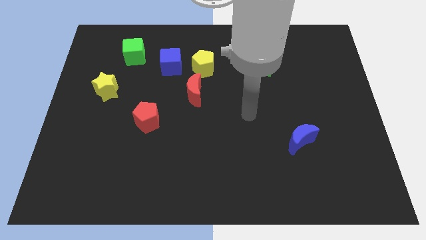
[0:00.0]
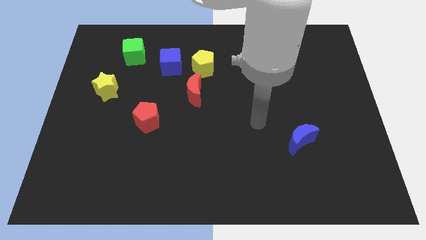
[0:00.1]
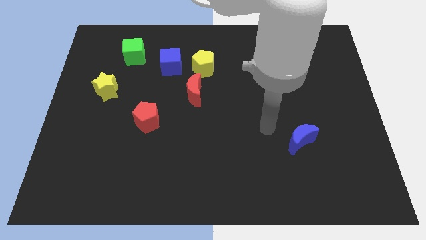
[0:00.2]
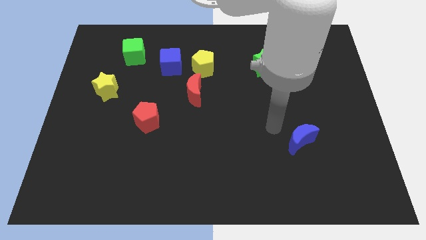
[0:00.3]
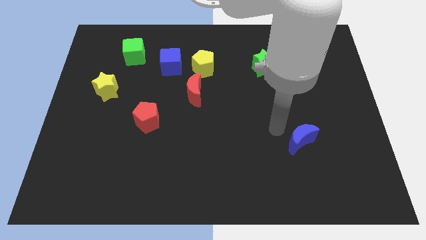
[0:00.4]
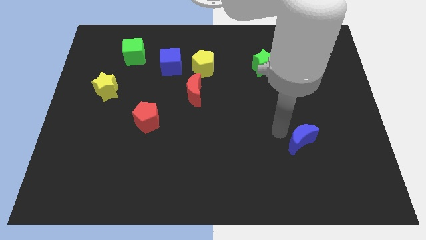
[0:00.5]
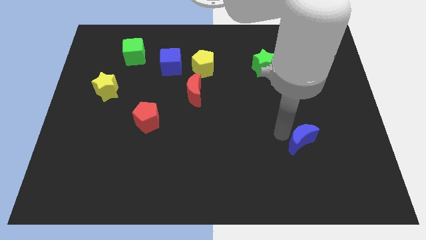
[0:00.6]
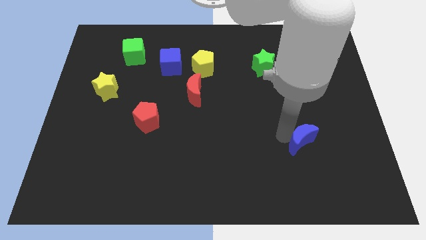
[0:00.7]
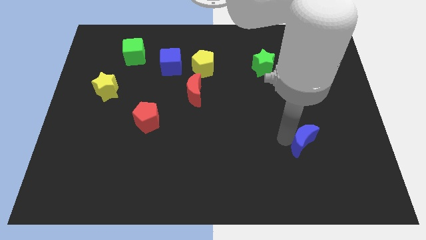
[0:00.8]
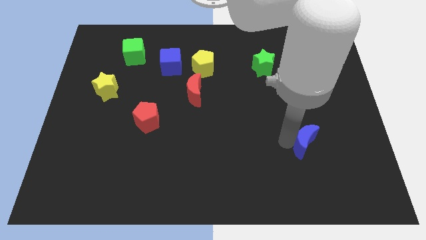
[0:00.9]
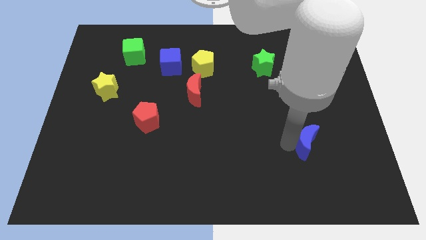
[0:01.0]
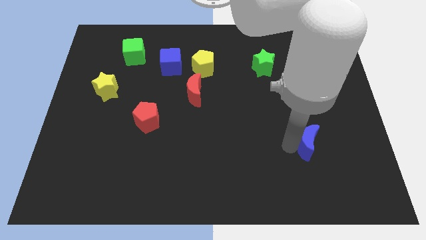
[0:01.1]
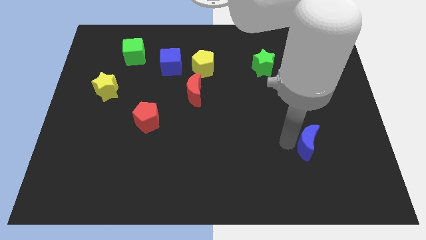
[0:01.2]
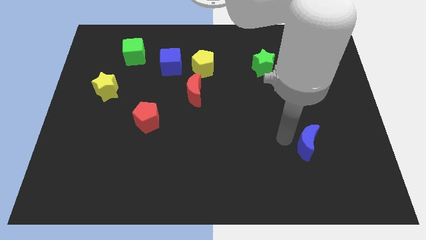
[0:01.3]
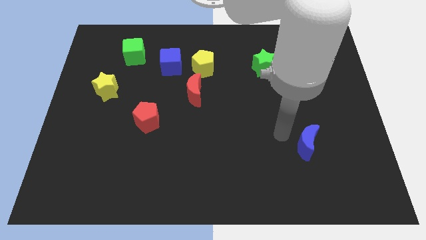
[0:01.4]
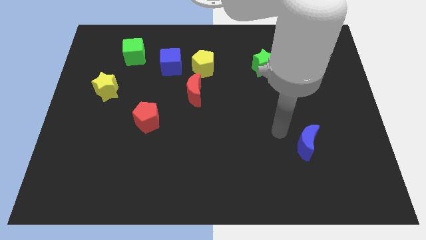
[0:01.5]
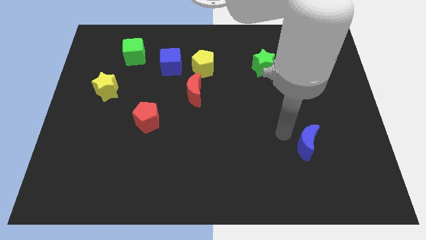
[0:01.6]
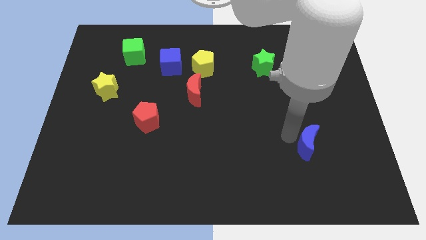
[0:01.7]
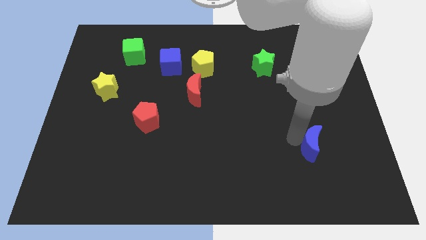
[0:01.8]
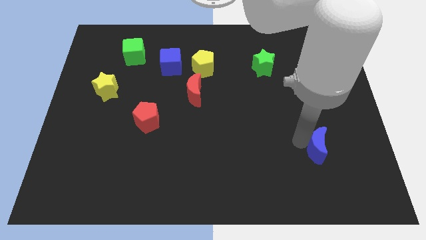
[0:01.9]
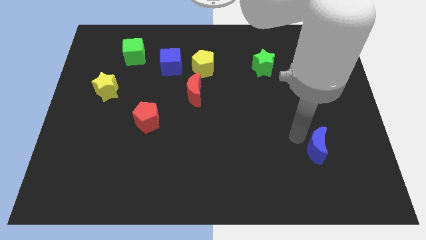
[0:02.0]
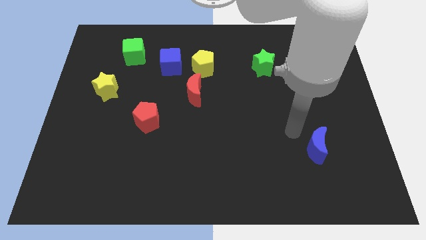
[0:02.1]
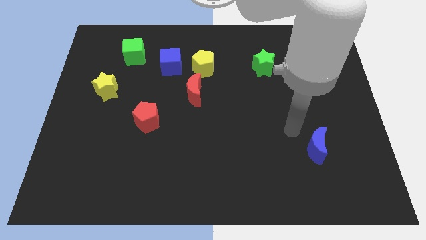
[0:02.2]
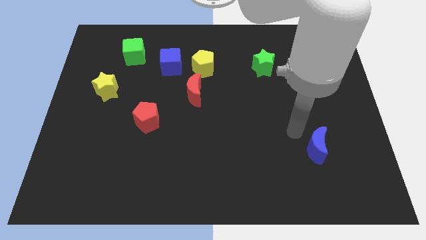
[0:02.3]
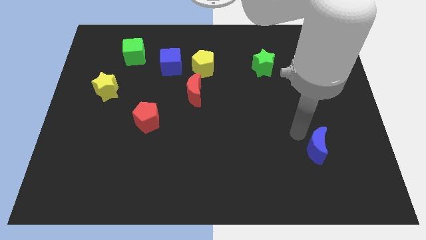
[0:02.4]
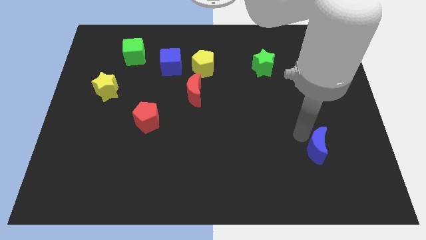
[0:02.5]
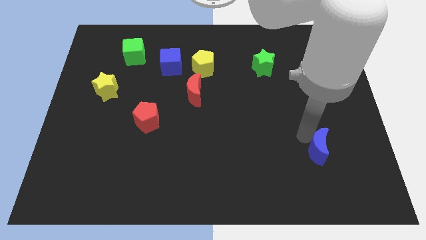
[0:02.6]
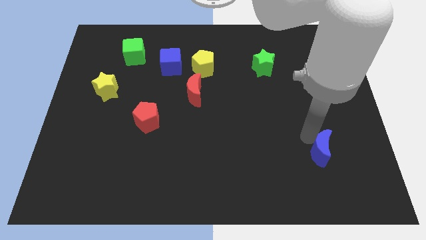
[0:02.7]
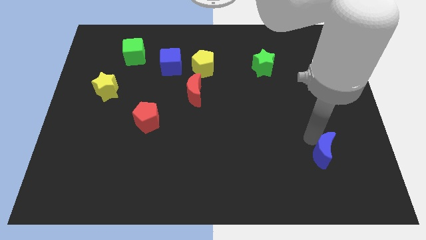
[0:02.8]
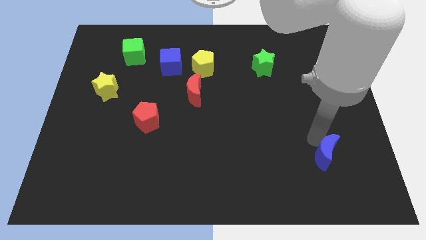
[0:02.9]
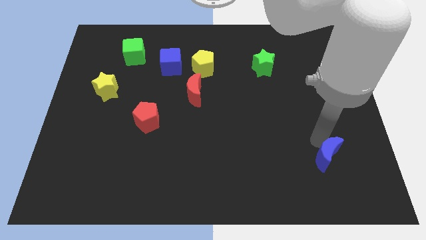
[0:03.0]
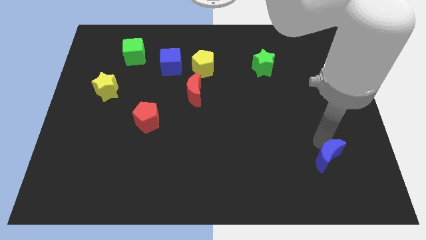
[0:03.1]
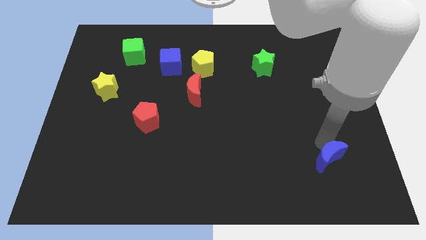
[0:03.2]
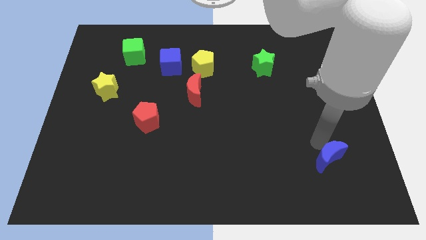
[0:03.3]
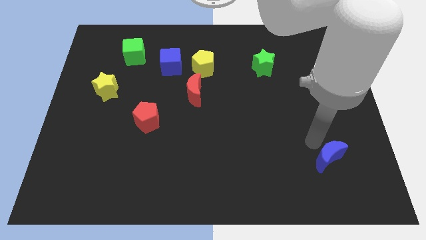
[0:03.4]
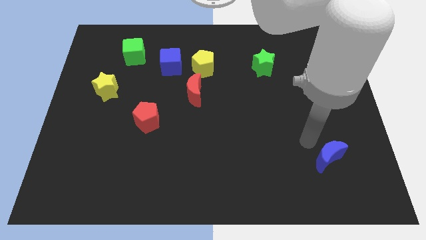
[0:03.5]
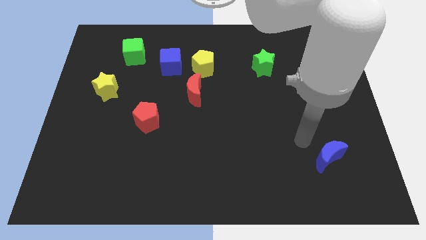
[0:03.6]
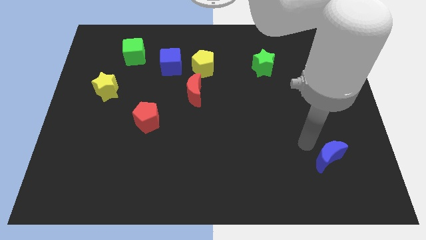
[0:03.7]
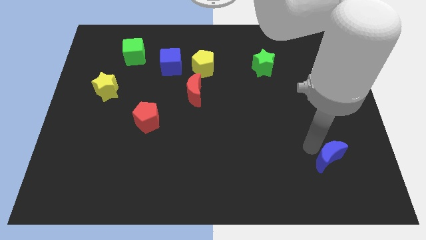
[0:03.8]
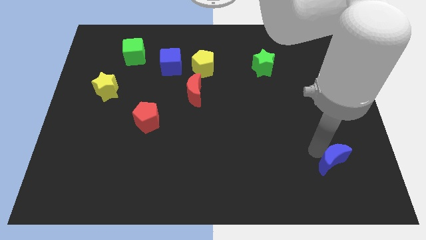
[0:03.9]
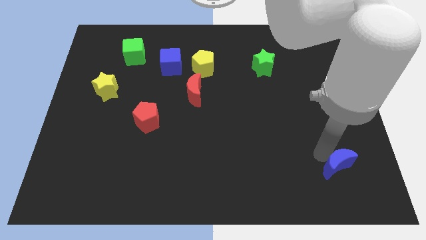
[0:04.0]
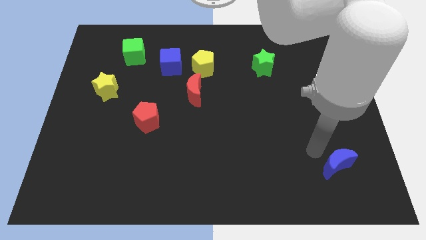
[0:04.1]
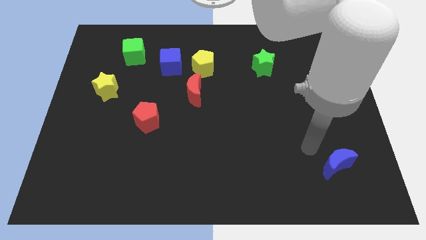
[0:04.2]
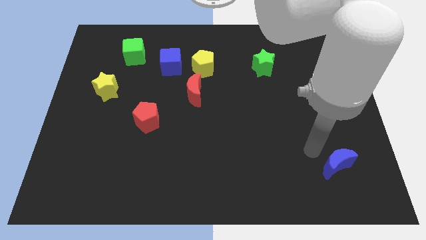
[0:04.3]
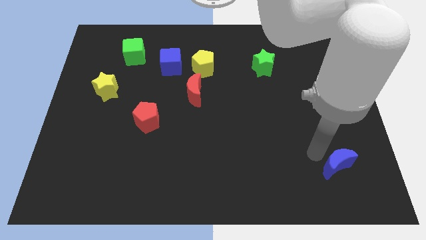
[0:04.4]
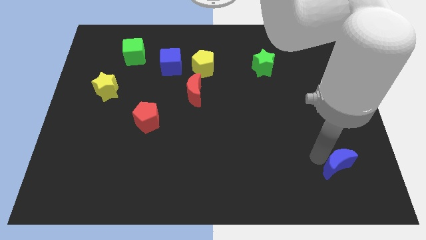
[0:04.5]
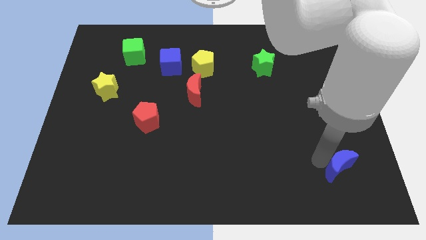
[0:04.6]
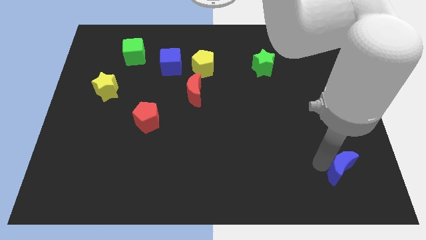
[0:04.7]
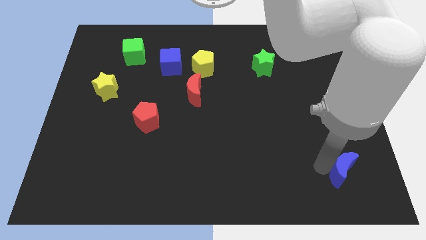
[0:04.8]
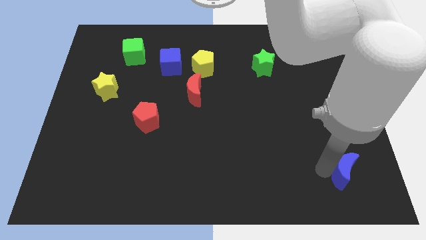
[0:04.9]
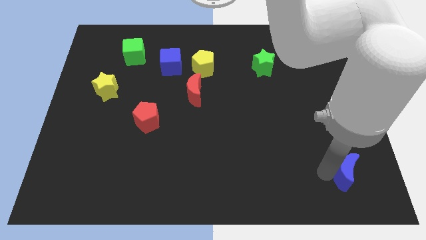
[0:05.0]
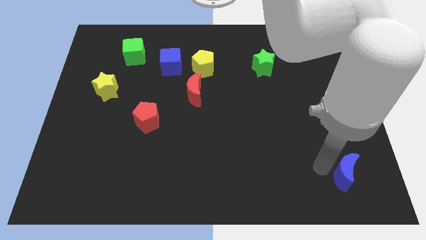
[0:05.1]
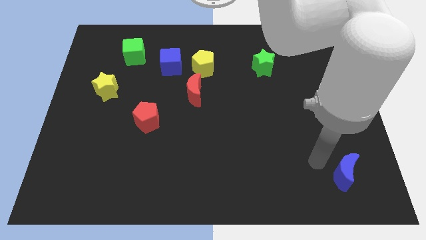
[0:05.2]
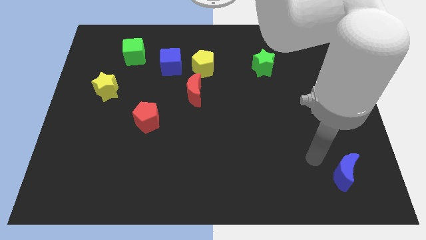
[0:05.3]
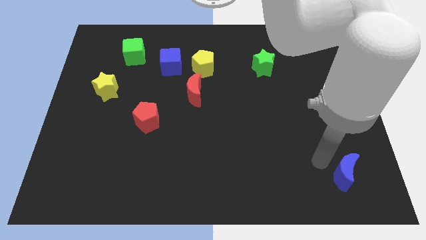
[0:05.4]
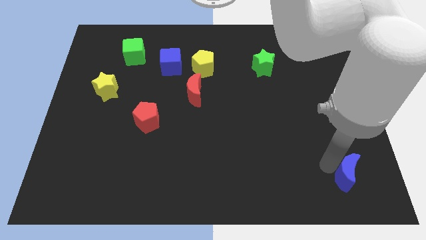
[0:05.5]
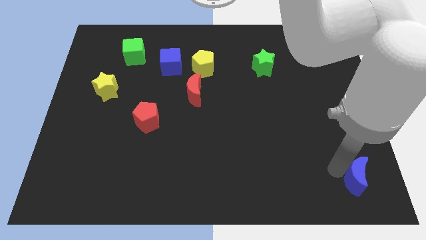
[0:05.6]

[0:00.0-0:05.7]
slide the blue moon to the bottom right of the board
